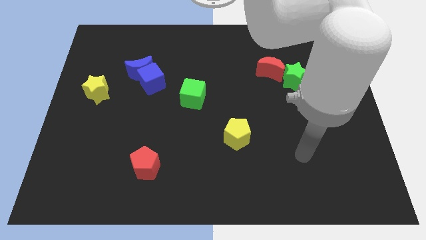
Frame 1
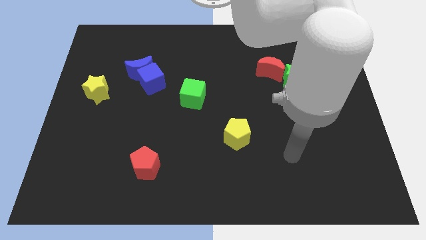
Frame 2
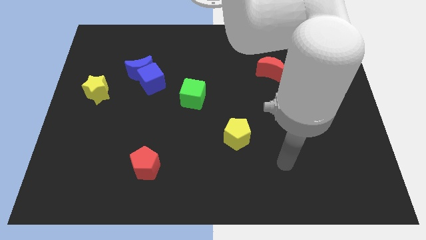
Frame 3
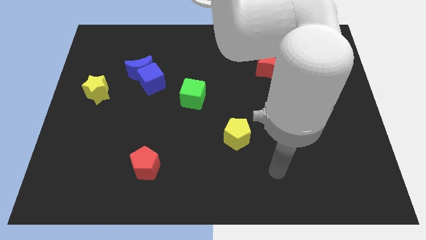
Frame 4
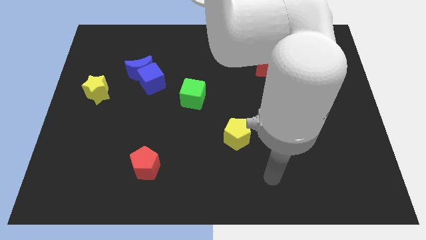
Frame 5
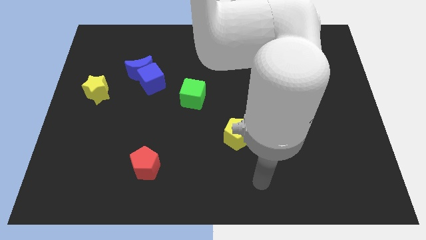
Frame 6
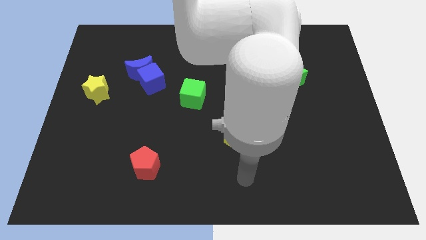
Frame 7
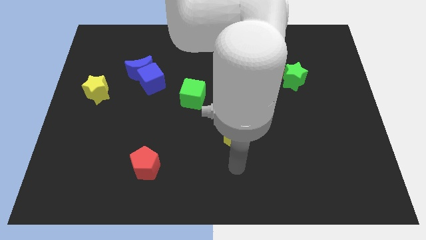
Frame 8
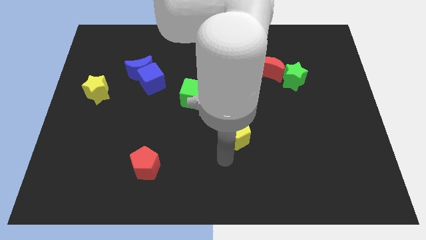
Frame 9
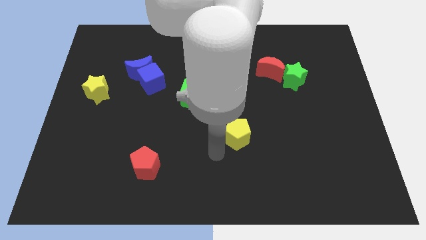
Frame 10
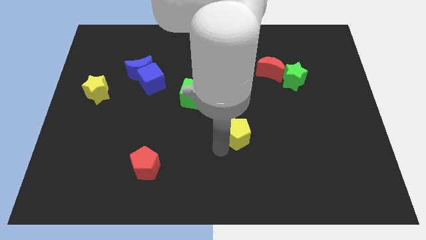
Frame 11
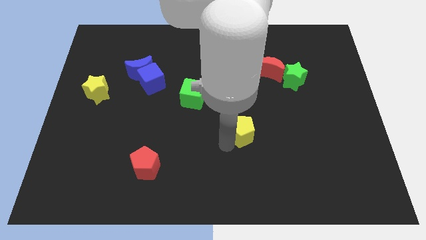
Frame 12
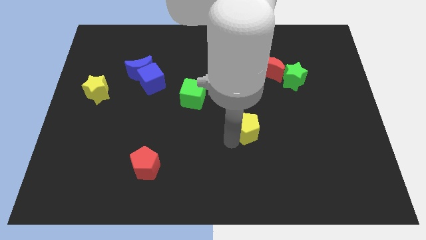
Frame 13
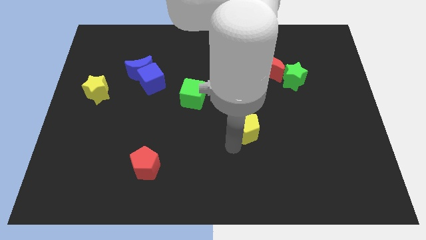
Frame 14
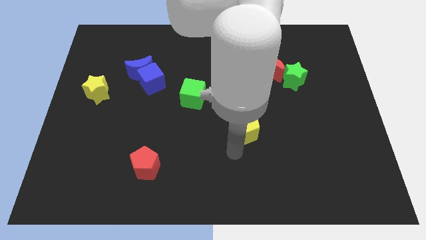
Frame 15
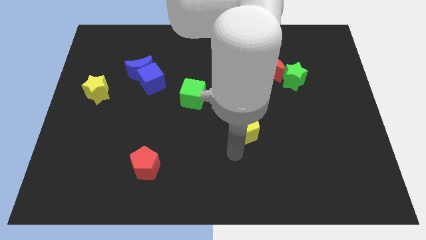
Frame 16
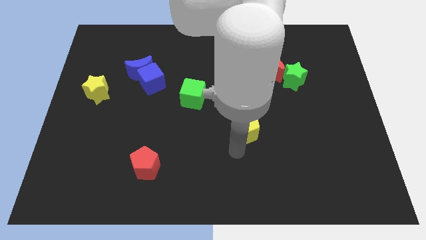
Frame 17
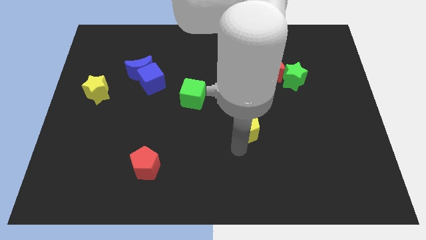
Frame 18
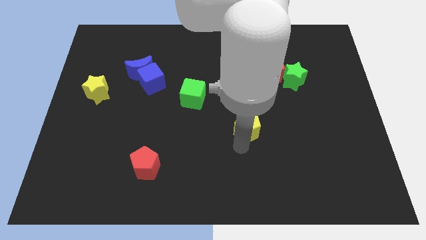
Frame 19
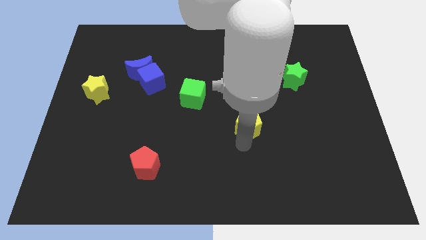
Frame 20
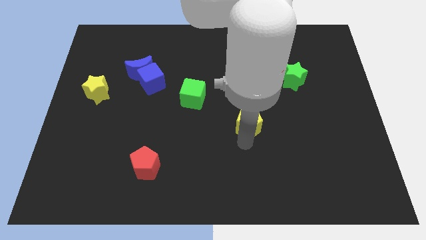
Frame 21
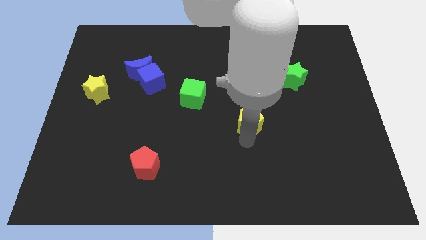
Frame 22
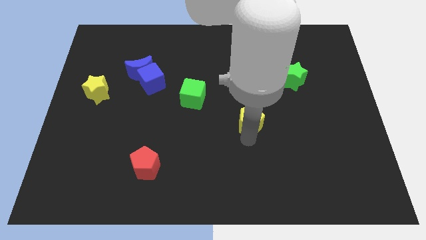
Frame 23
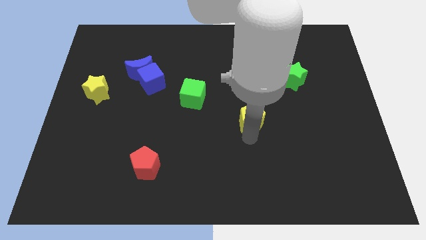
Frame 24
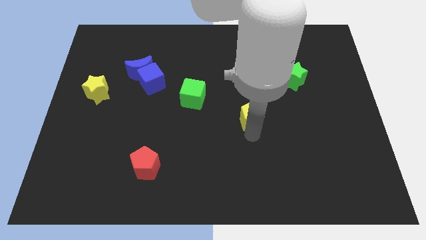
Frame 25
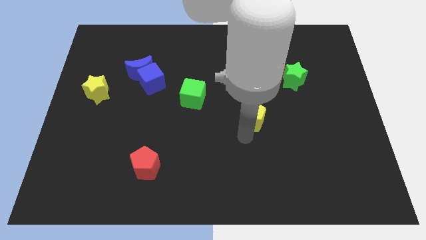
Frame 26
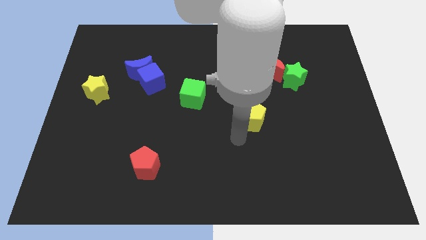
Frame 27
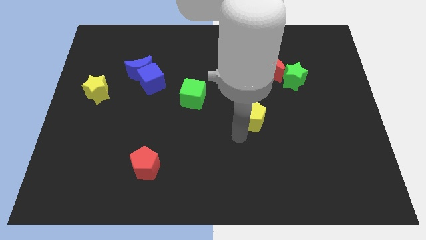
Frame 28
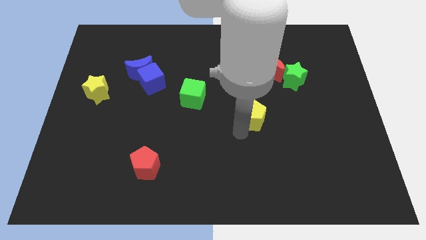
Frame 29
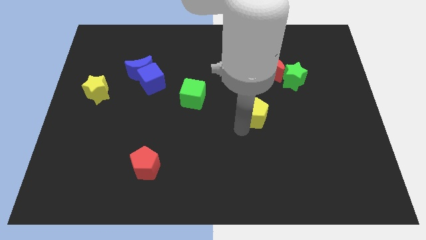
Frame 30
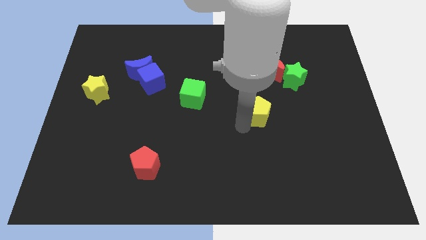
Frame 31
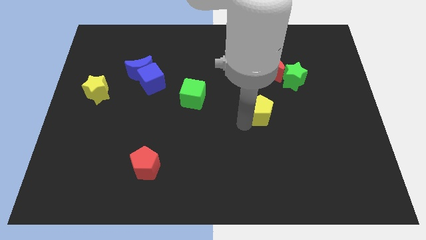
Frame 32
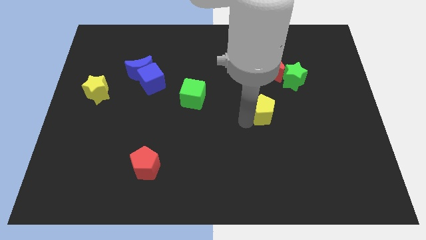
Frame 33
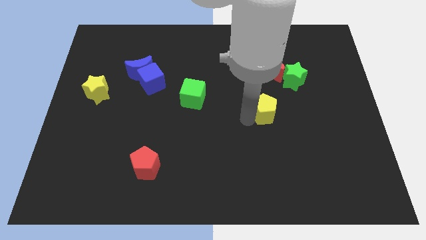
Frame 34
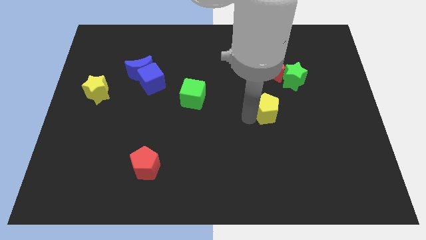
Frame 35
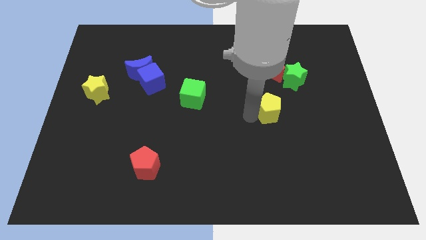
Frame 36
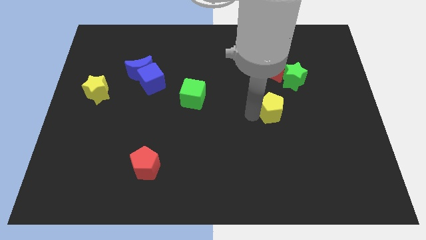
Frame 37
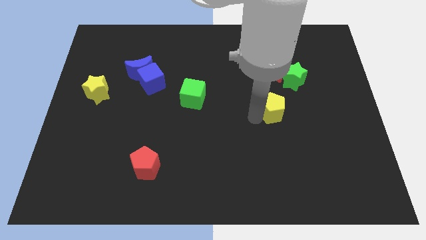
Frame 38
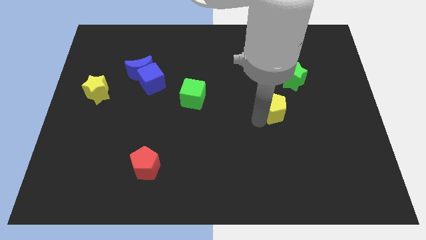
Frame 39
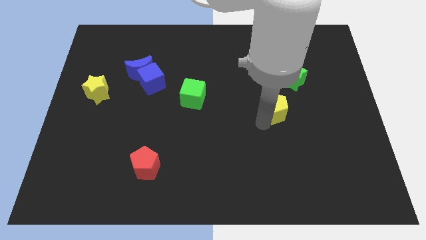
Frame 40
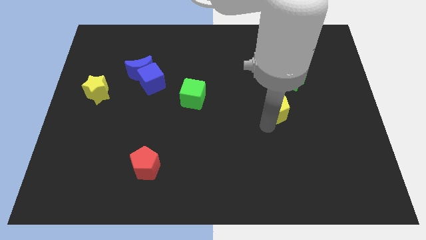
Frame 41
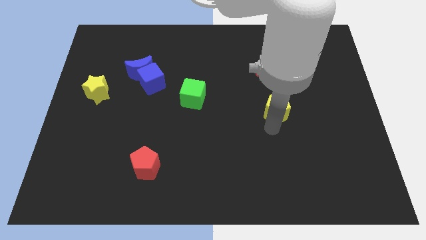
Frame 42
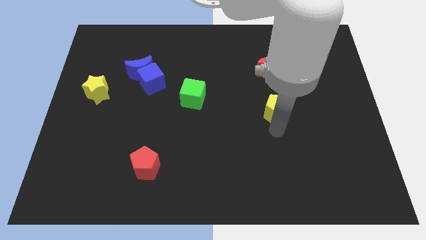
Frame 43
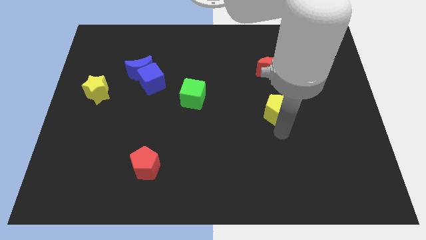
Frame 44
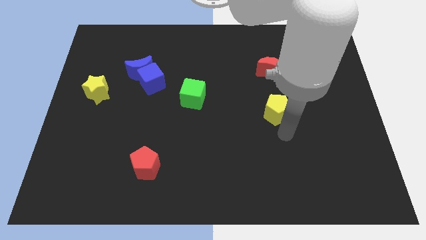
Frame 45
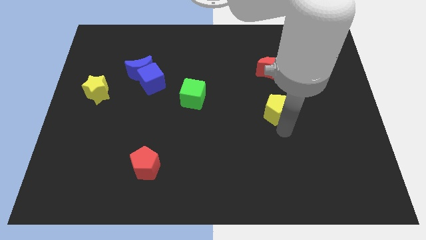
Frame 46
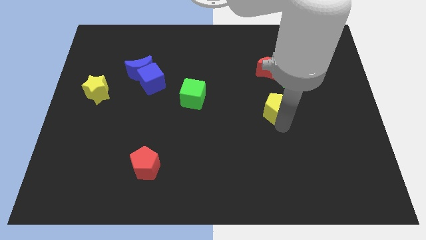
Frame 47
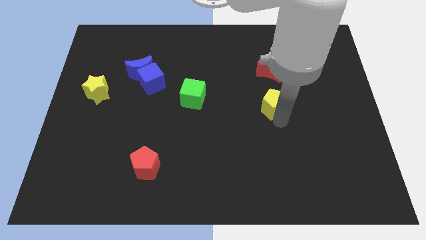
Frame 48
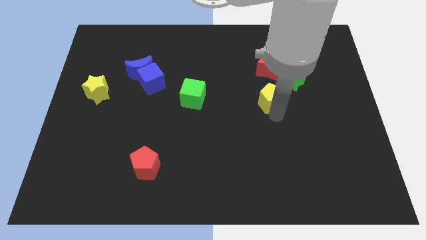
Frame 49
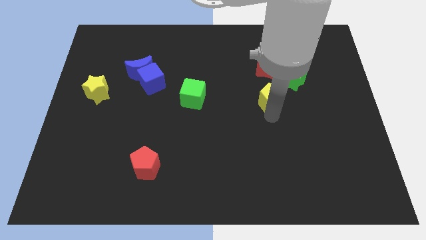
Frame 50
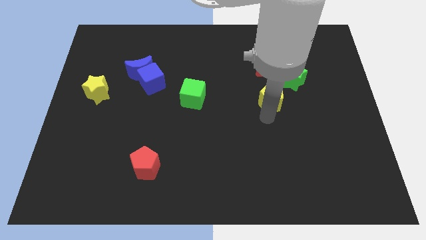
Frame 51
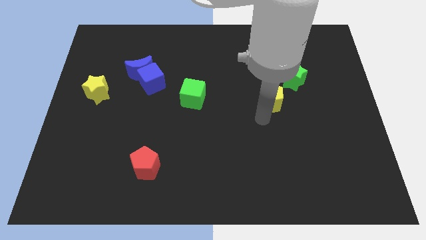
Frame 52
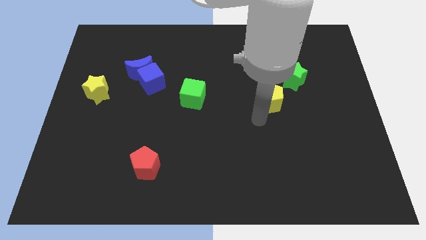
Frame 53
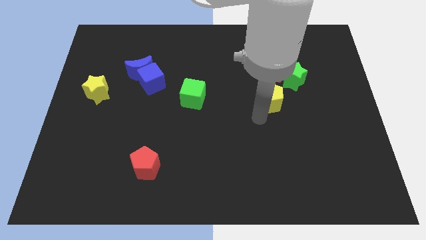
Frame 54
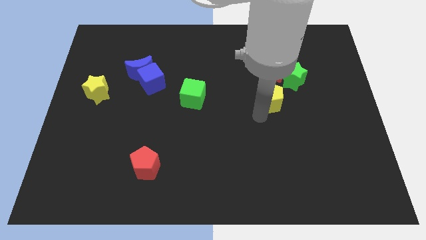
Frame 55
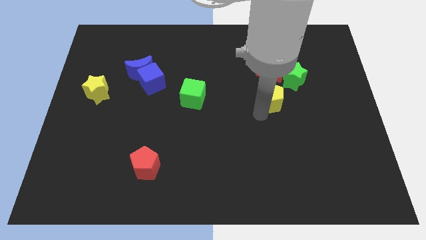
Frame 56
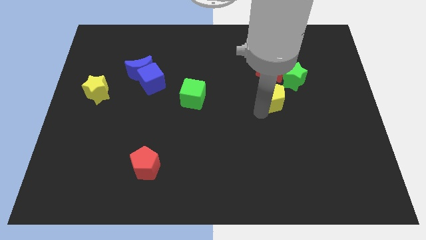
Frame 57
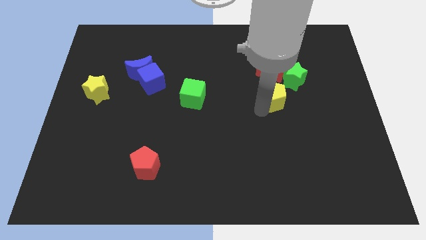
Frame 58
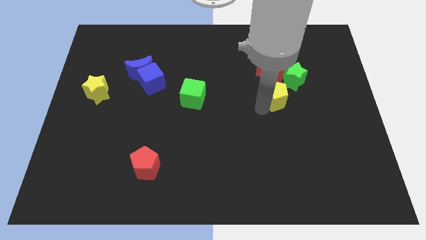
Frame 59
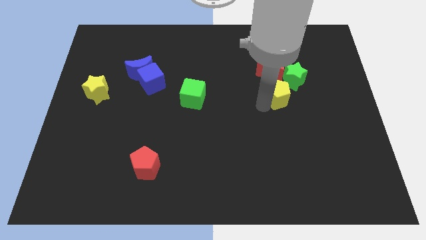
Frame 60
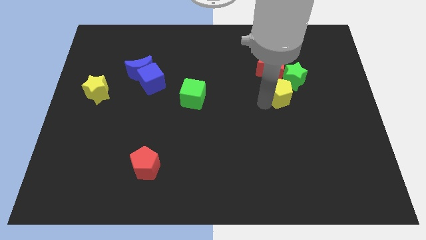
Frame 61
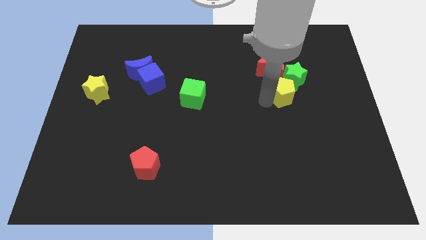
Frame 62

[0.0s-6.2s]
move the yellow pentagon next to the green star

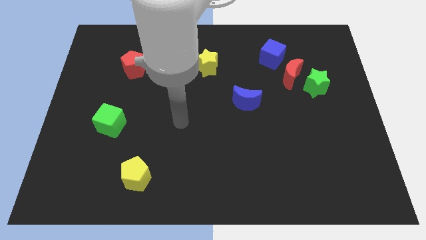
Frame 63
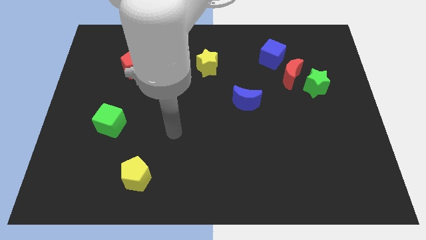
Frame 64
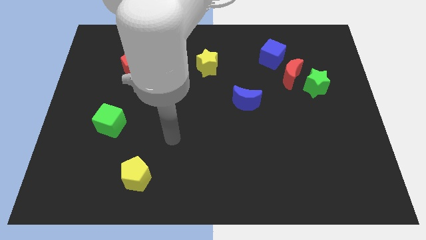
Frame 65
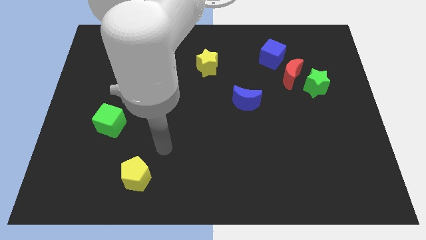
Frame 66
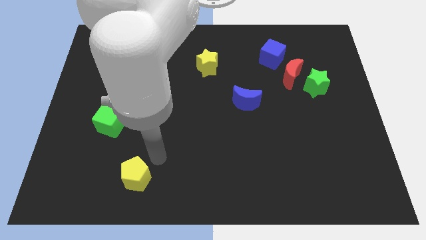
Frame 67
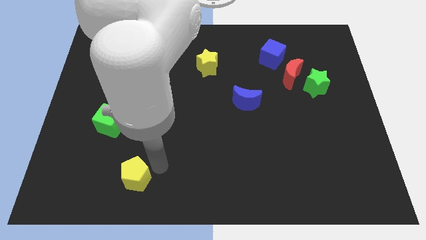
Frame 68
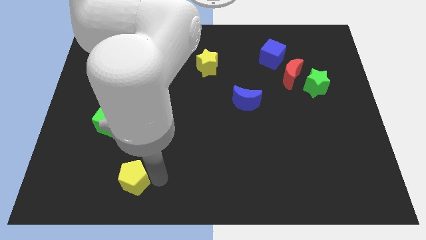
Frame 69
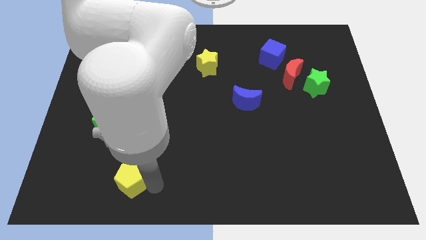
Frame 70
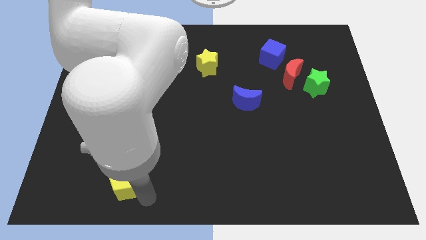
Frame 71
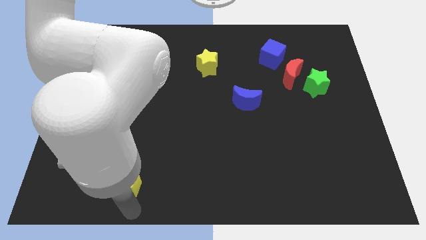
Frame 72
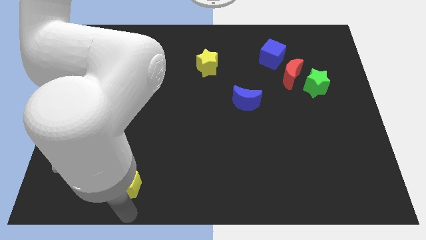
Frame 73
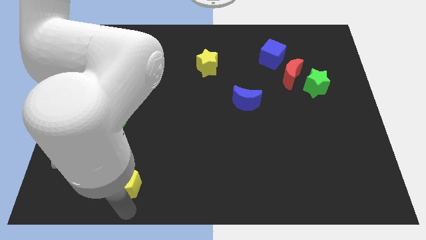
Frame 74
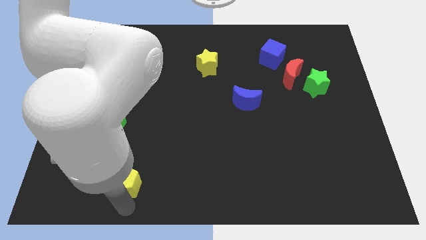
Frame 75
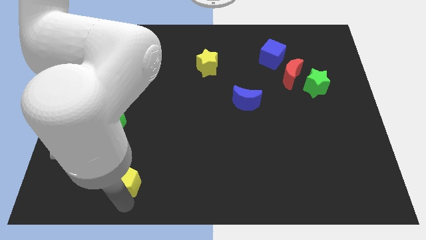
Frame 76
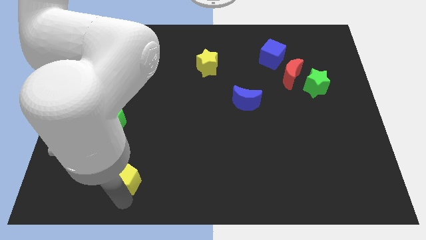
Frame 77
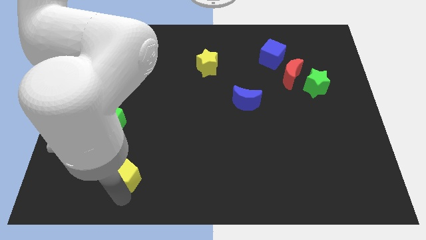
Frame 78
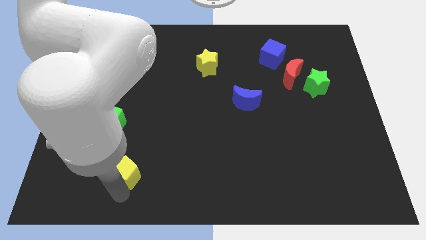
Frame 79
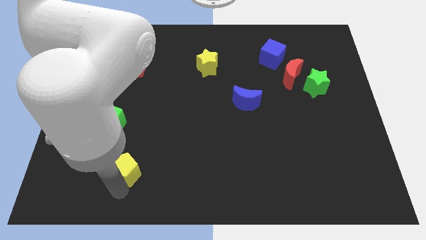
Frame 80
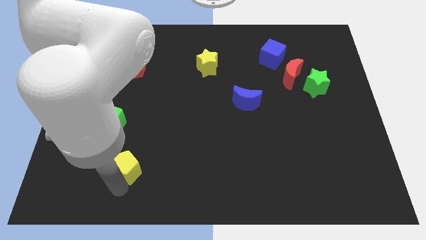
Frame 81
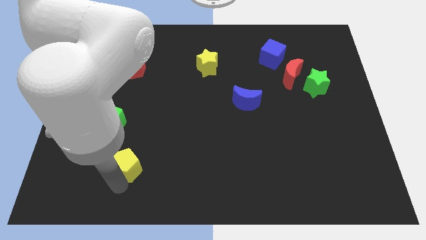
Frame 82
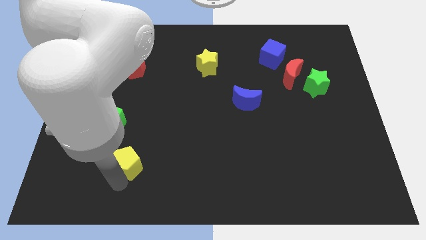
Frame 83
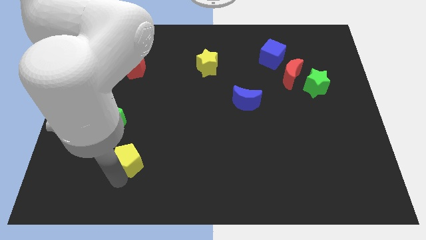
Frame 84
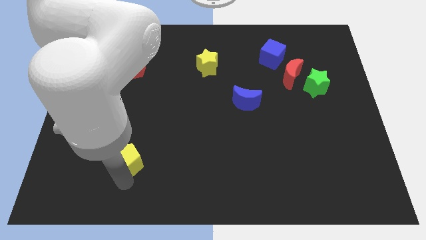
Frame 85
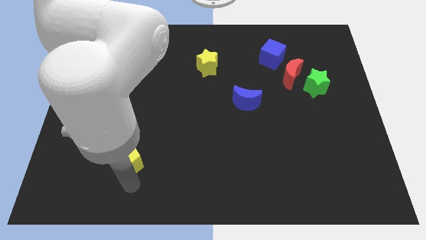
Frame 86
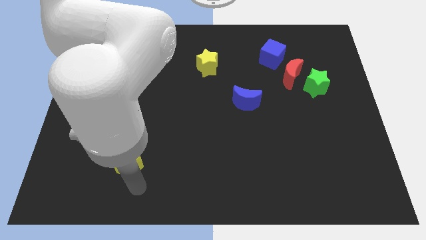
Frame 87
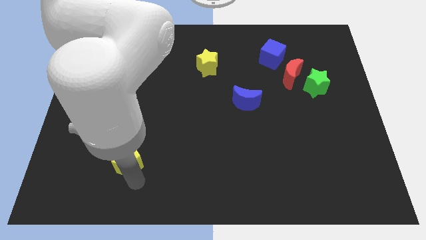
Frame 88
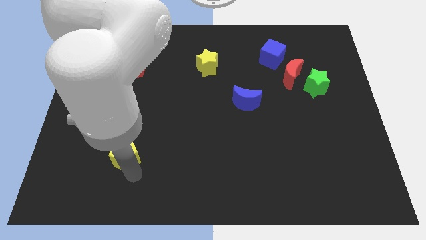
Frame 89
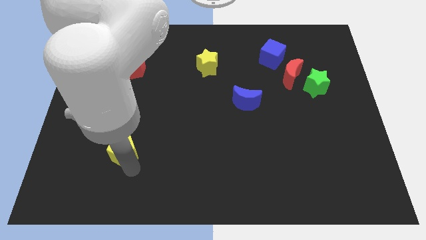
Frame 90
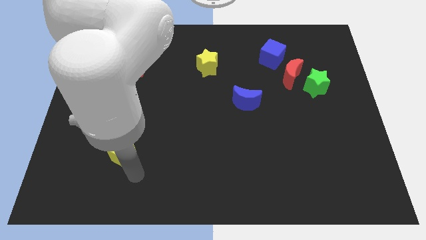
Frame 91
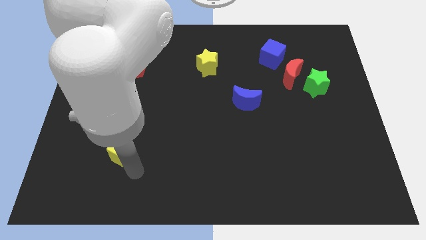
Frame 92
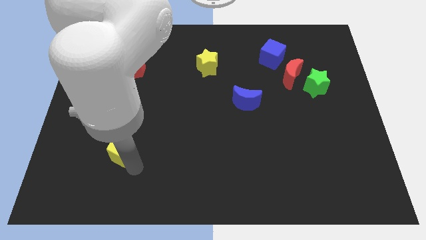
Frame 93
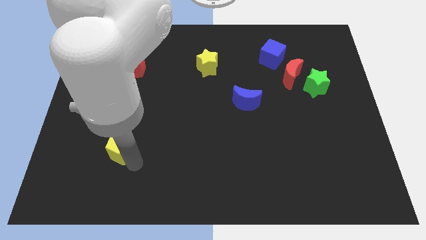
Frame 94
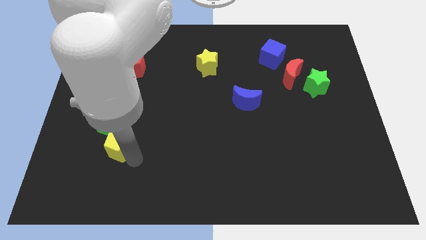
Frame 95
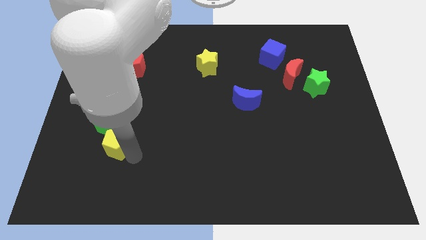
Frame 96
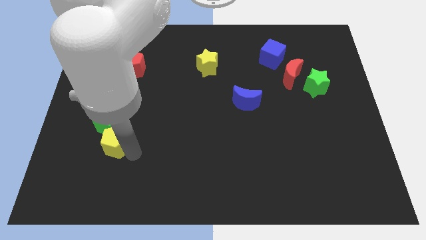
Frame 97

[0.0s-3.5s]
put the yellow pentagon next to the green cube
